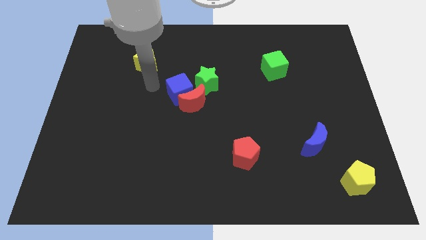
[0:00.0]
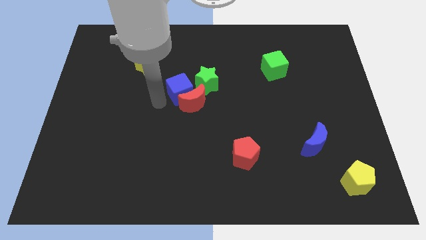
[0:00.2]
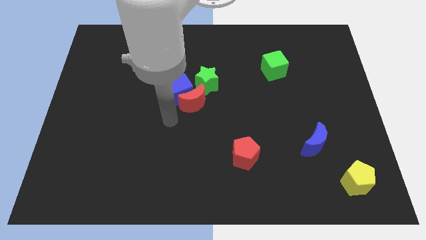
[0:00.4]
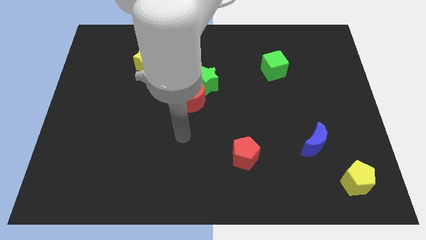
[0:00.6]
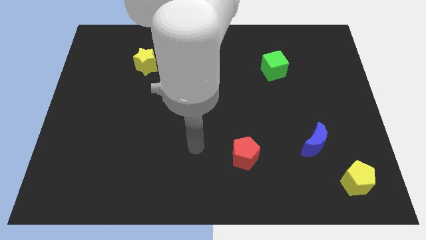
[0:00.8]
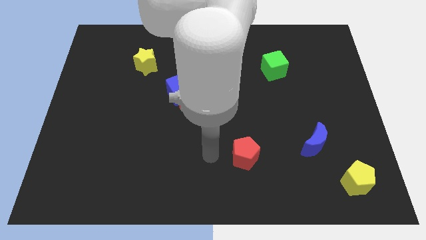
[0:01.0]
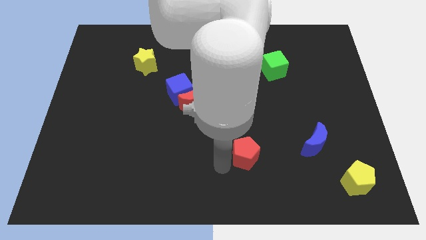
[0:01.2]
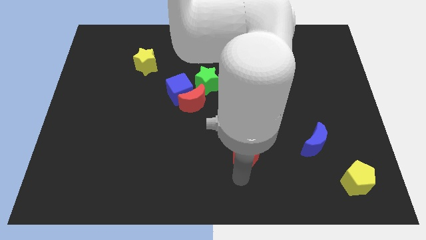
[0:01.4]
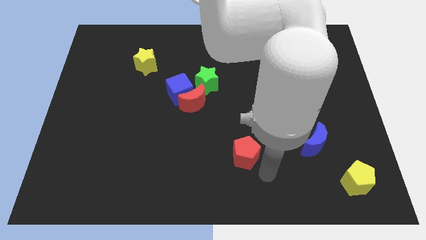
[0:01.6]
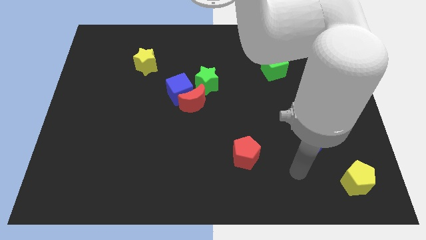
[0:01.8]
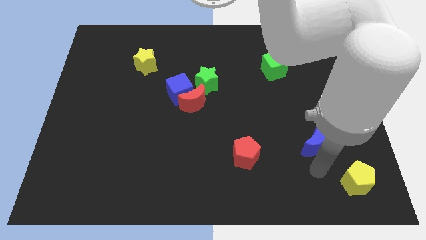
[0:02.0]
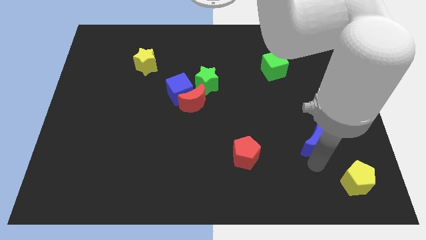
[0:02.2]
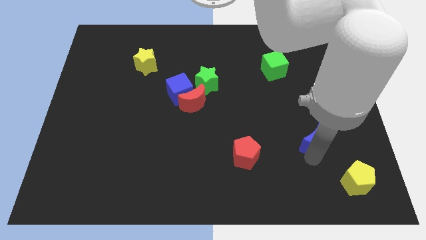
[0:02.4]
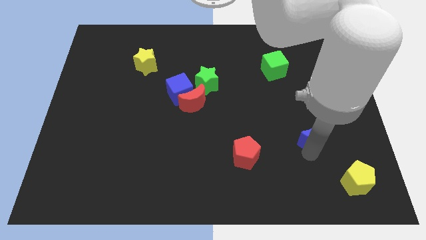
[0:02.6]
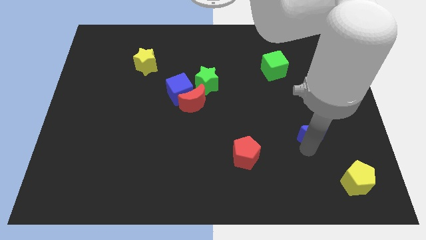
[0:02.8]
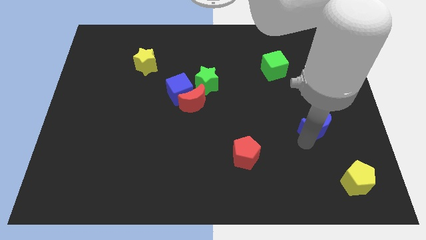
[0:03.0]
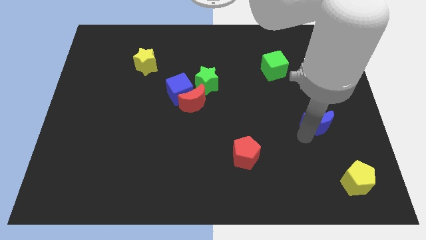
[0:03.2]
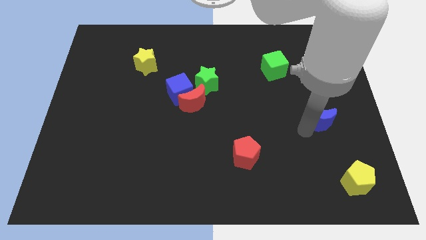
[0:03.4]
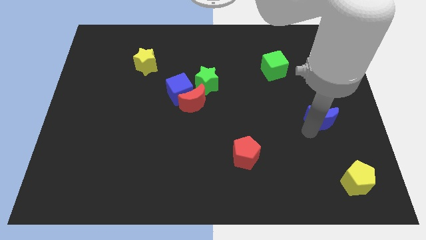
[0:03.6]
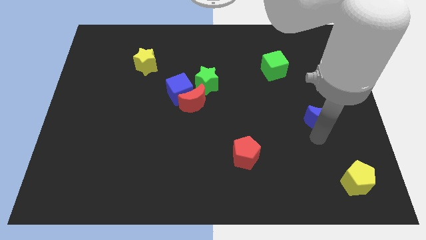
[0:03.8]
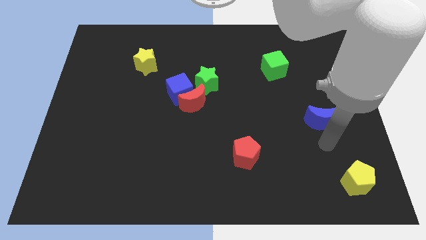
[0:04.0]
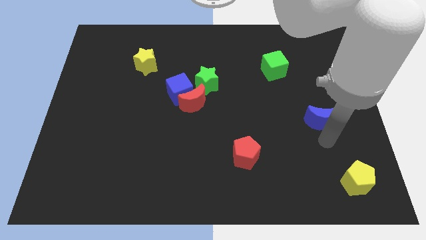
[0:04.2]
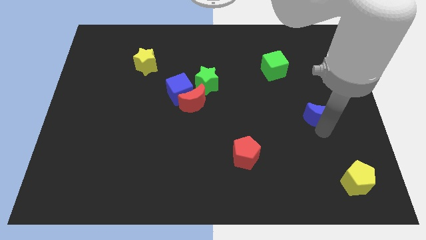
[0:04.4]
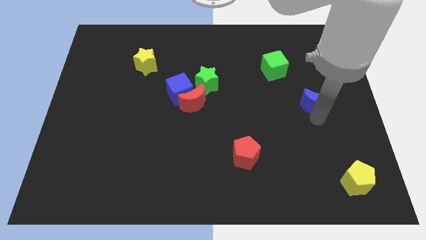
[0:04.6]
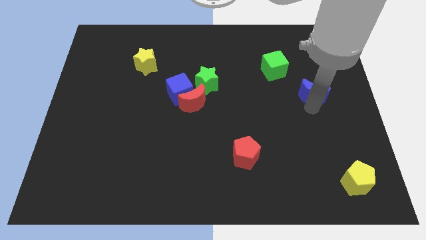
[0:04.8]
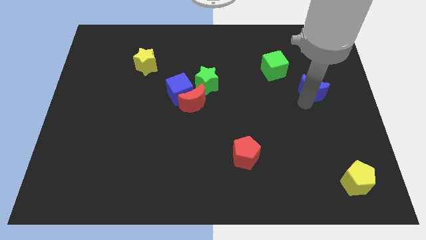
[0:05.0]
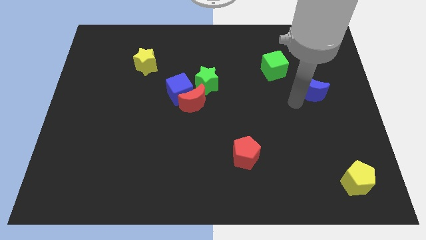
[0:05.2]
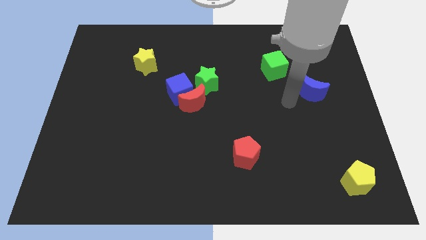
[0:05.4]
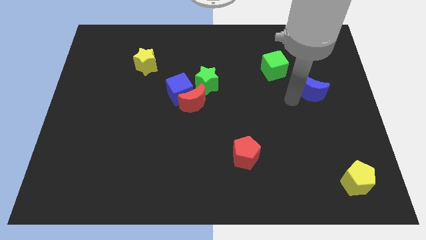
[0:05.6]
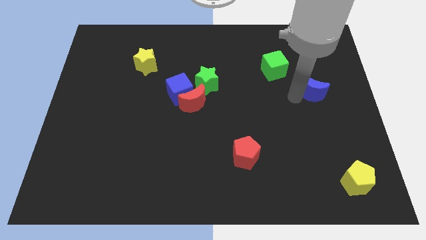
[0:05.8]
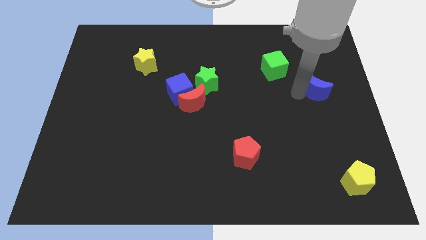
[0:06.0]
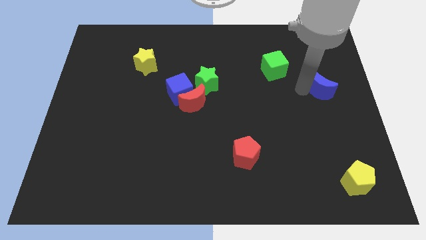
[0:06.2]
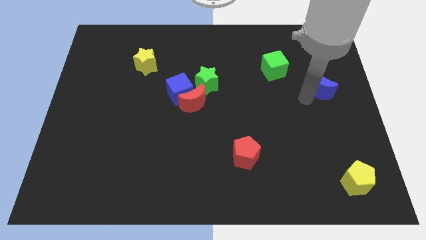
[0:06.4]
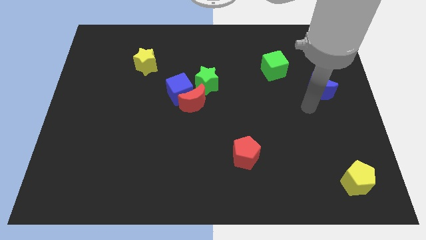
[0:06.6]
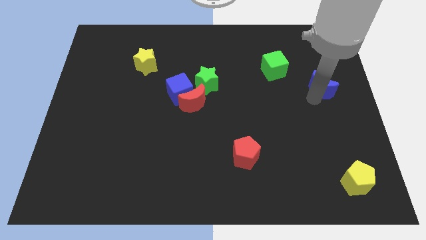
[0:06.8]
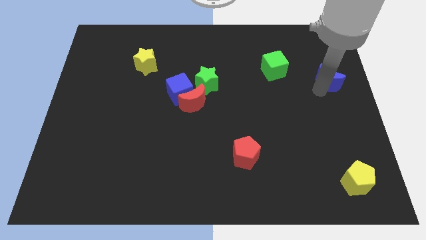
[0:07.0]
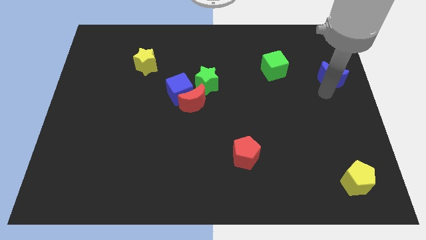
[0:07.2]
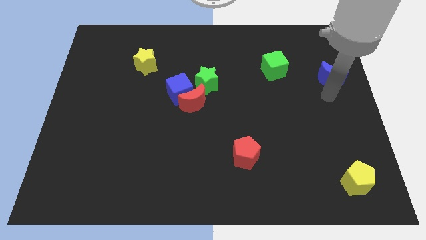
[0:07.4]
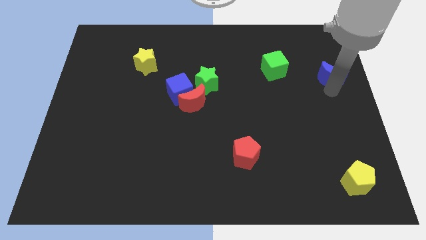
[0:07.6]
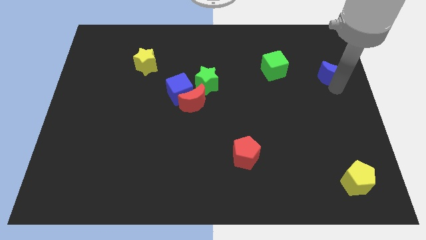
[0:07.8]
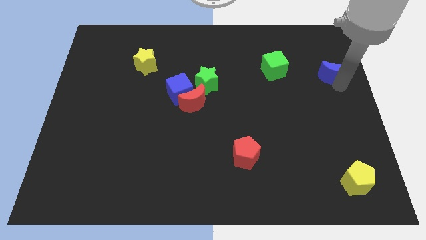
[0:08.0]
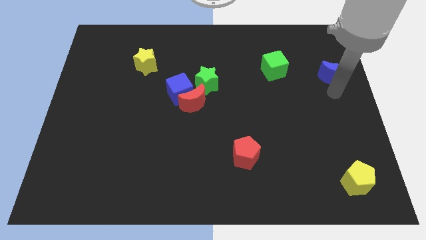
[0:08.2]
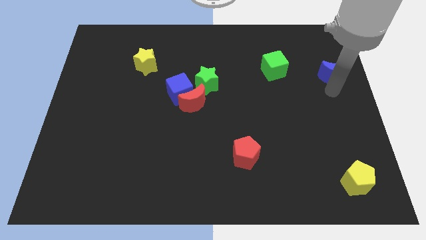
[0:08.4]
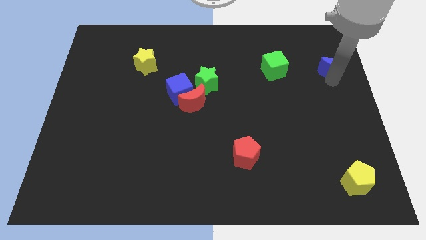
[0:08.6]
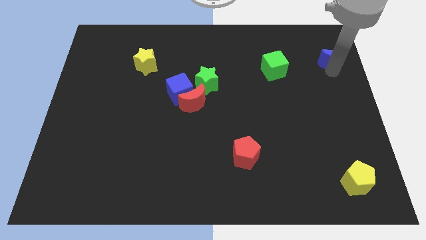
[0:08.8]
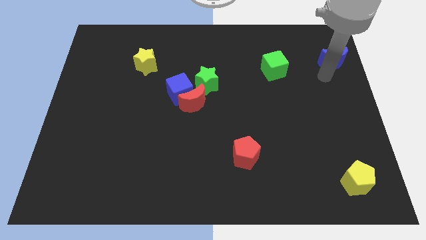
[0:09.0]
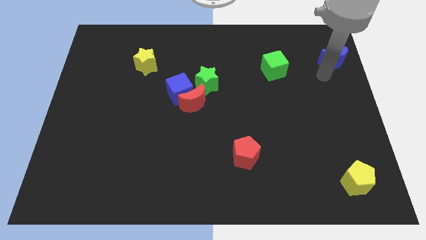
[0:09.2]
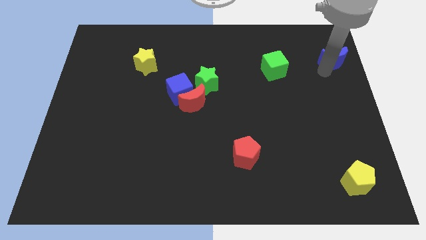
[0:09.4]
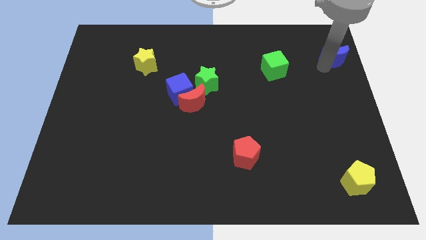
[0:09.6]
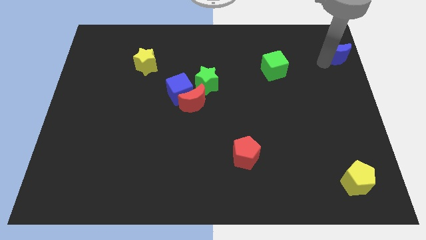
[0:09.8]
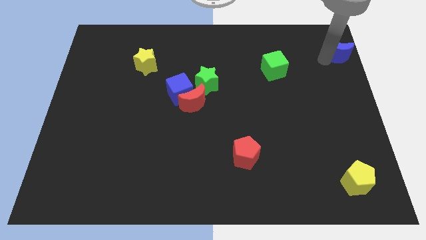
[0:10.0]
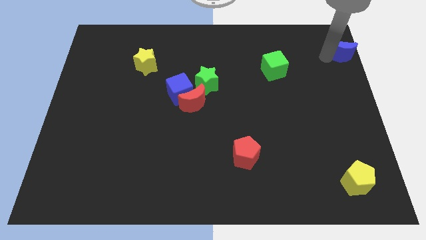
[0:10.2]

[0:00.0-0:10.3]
move the blue moon to the upper right corner
